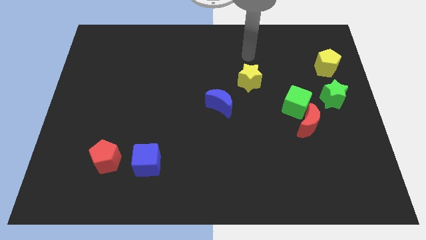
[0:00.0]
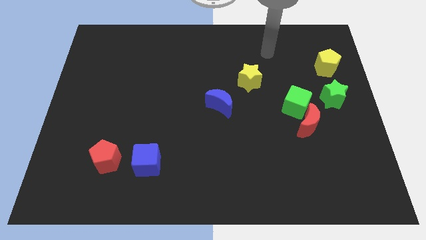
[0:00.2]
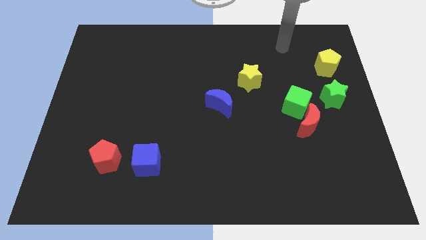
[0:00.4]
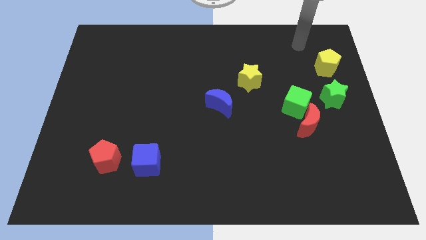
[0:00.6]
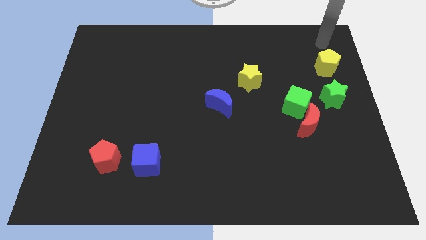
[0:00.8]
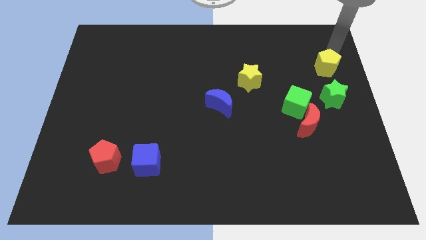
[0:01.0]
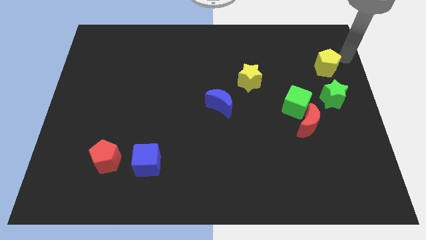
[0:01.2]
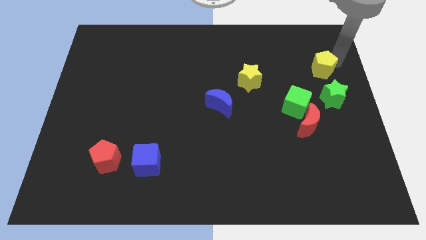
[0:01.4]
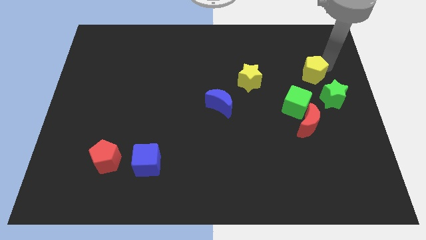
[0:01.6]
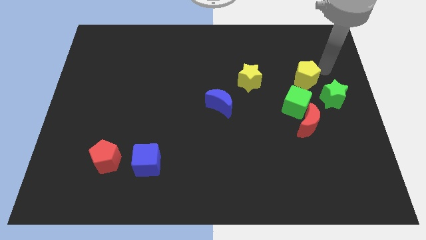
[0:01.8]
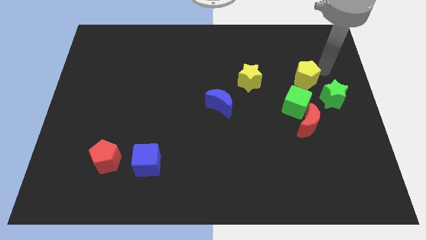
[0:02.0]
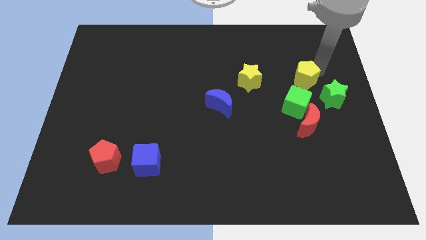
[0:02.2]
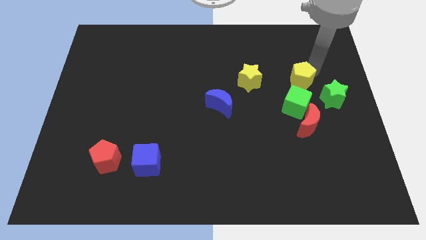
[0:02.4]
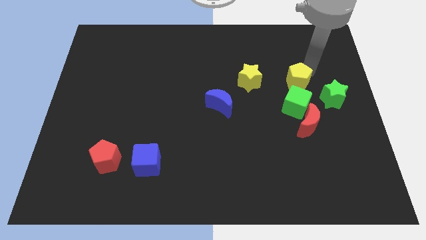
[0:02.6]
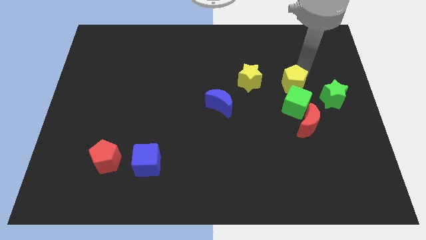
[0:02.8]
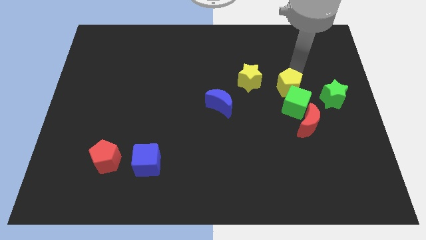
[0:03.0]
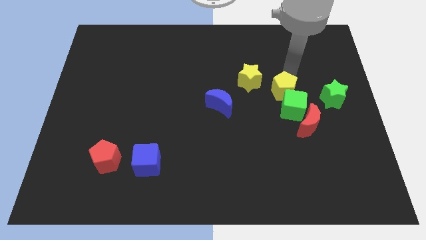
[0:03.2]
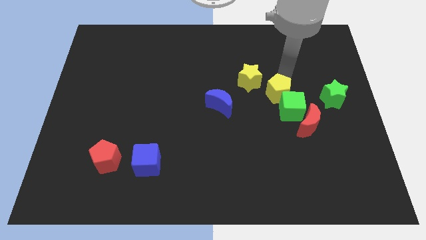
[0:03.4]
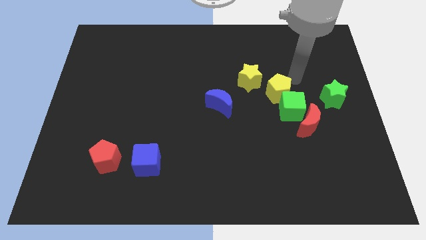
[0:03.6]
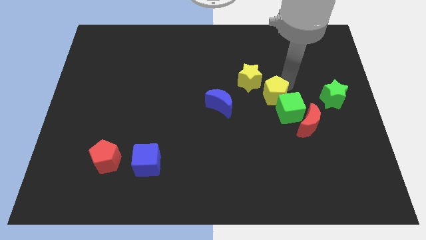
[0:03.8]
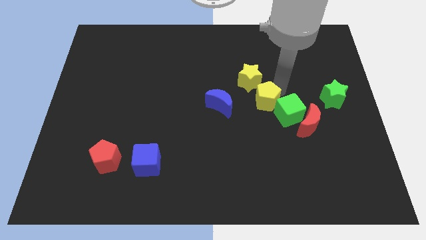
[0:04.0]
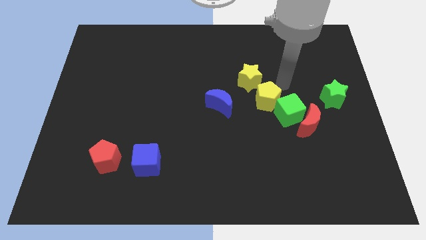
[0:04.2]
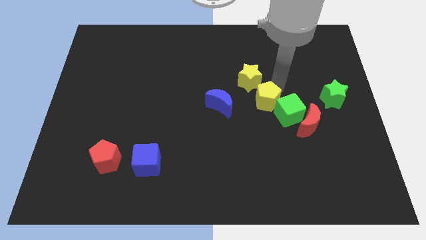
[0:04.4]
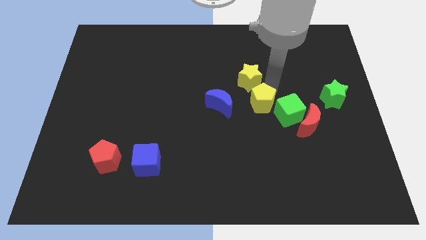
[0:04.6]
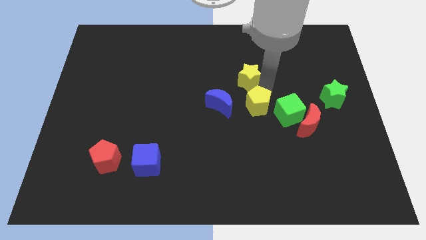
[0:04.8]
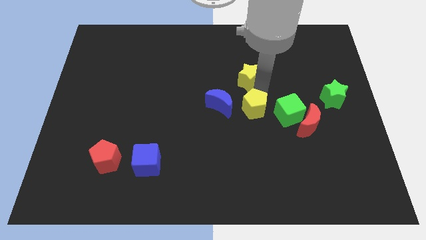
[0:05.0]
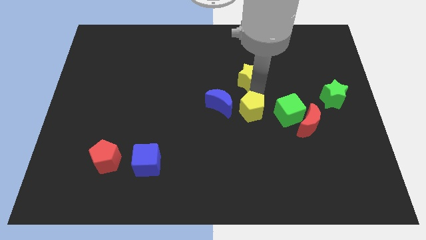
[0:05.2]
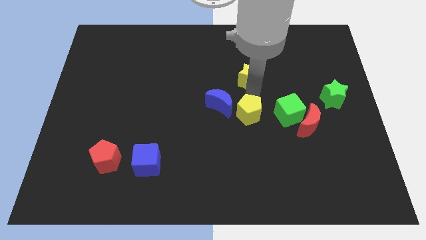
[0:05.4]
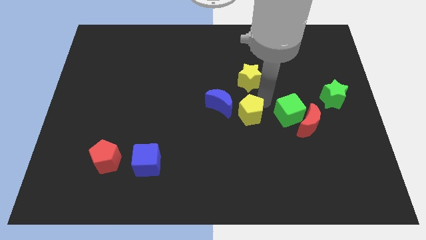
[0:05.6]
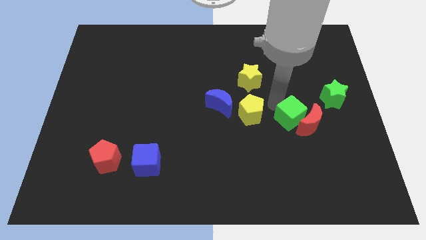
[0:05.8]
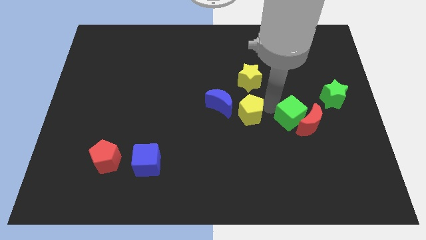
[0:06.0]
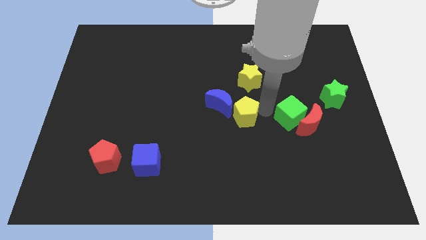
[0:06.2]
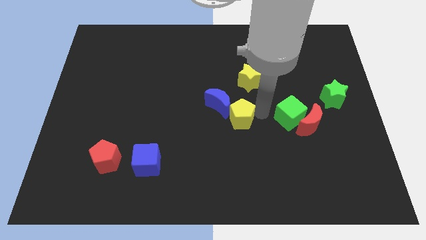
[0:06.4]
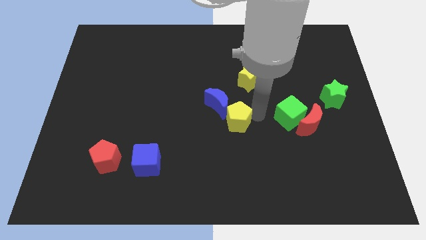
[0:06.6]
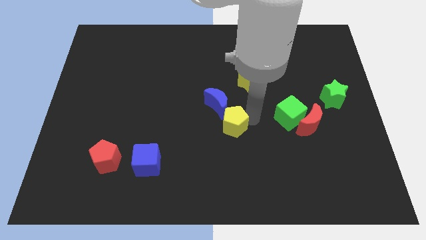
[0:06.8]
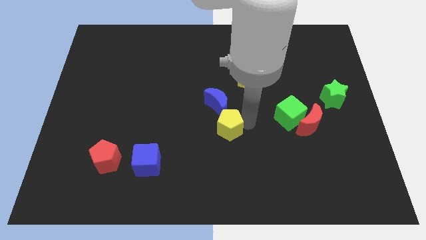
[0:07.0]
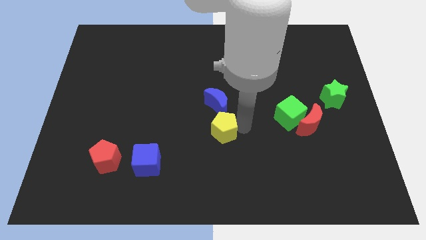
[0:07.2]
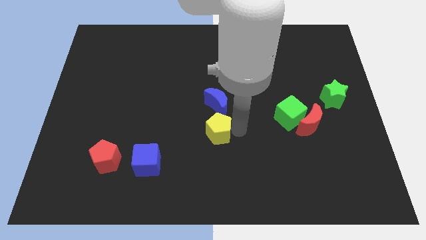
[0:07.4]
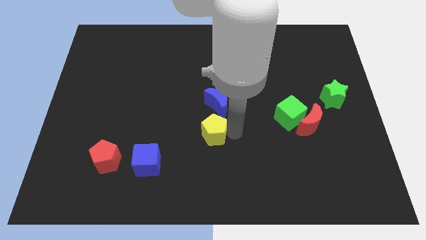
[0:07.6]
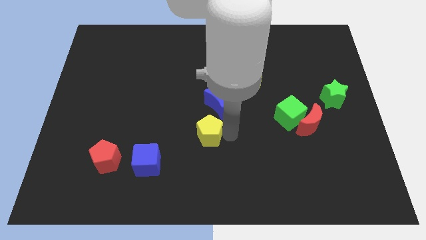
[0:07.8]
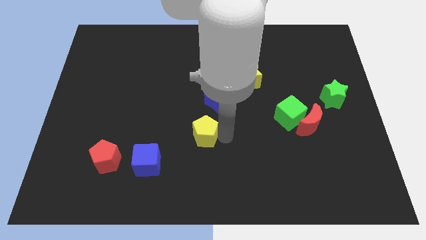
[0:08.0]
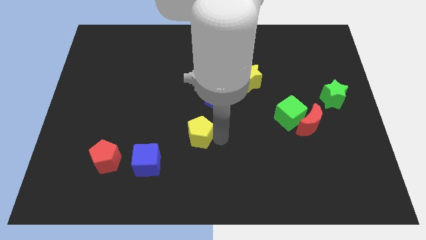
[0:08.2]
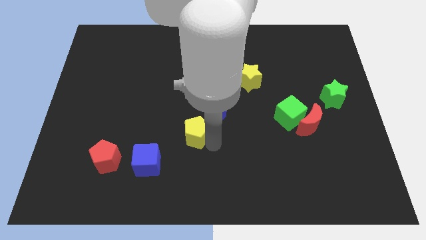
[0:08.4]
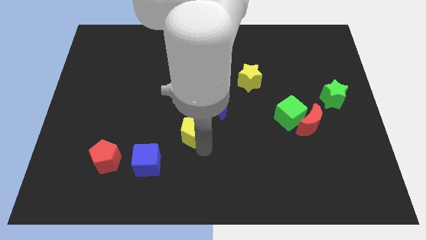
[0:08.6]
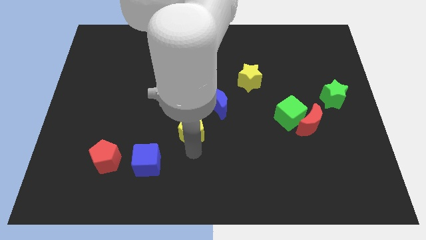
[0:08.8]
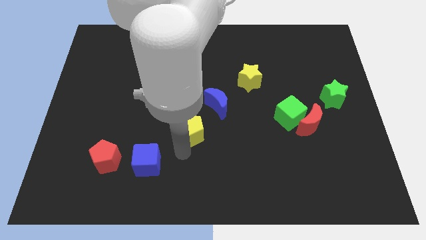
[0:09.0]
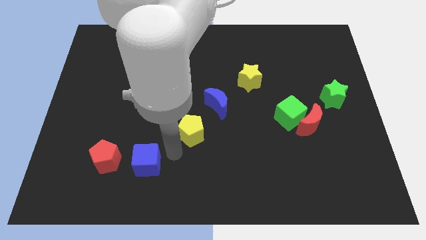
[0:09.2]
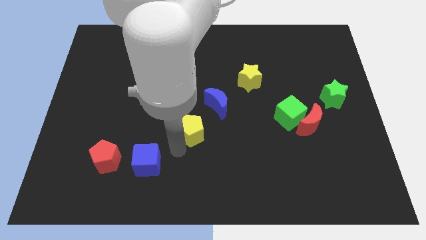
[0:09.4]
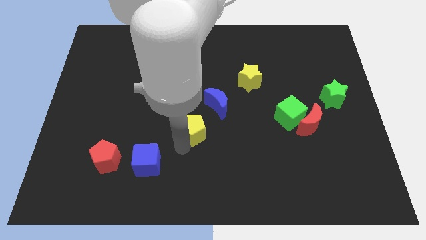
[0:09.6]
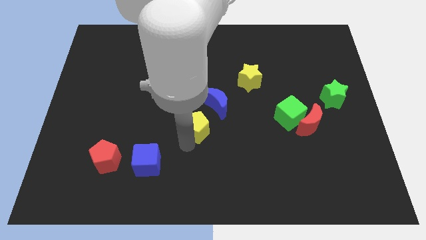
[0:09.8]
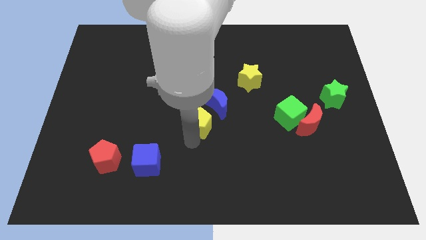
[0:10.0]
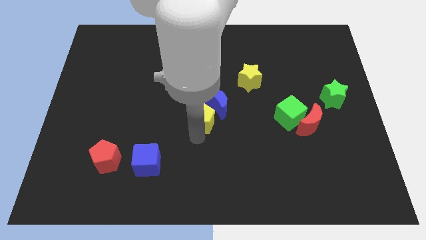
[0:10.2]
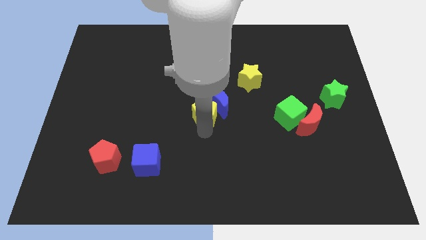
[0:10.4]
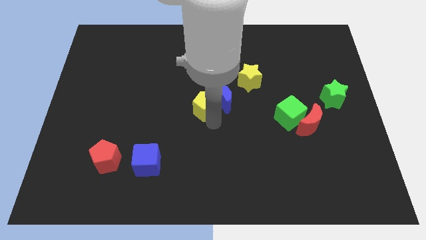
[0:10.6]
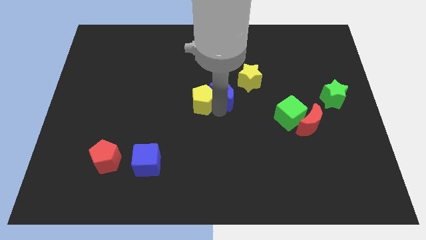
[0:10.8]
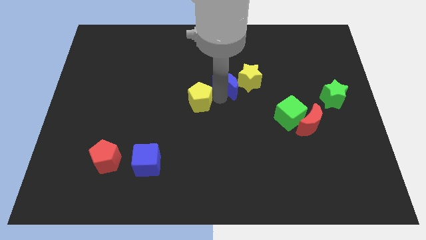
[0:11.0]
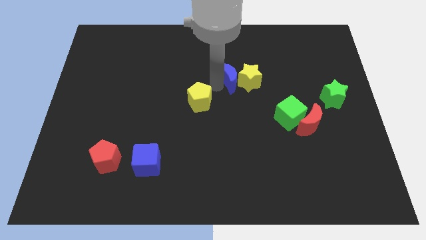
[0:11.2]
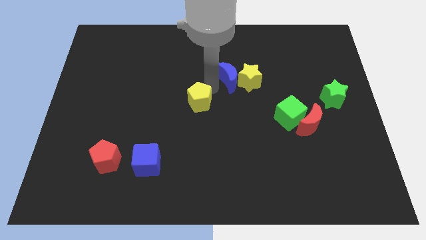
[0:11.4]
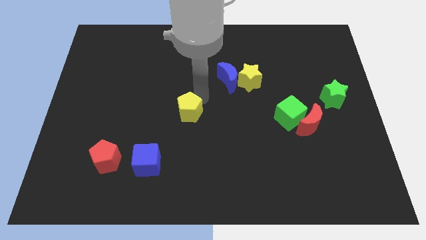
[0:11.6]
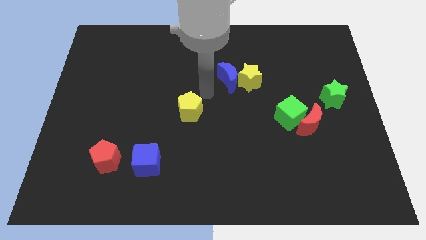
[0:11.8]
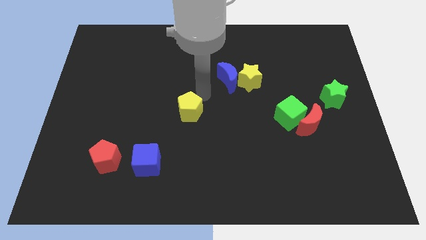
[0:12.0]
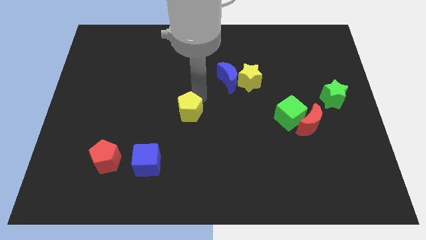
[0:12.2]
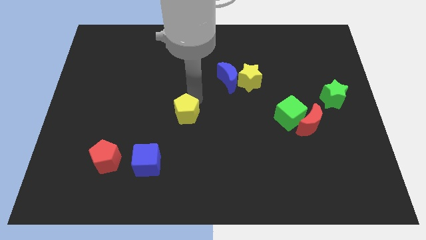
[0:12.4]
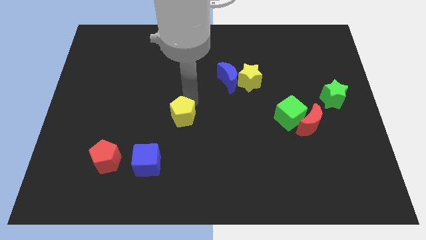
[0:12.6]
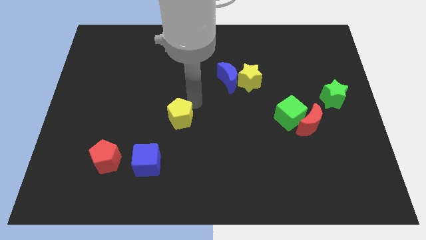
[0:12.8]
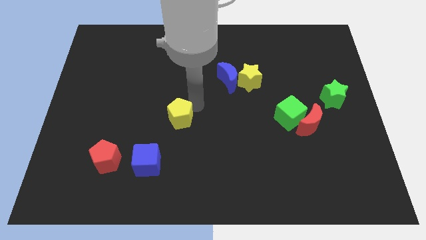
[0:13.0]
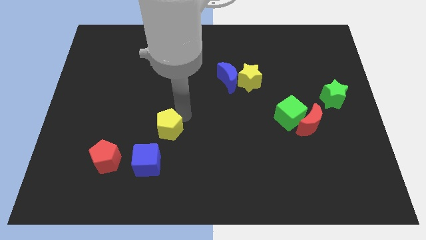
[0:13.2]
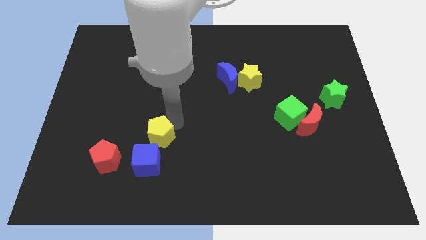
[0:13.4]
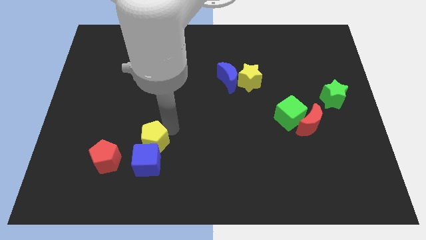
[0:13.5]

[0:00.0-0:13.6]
slide the yellow pentagon to the top right side of the red pentagon
